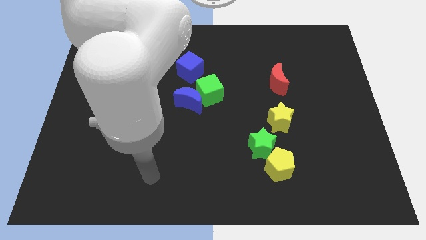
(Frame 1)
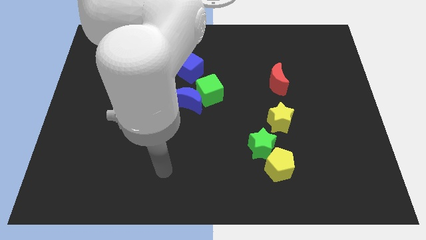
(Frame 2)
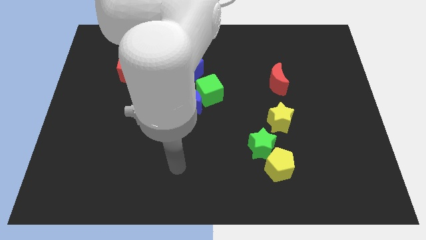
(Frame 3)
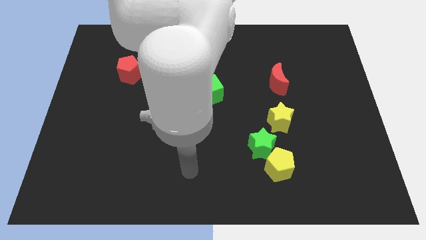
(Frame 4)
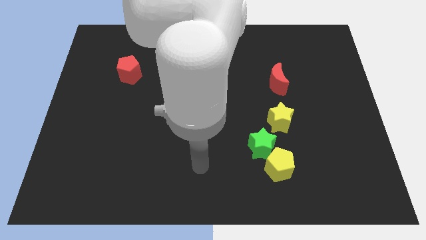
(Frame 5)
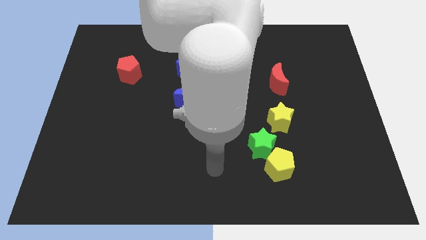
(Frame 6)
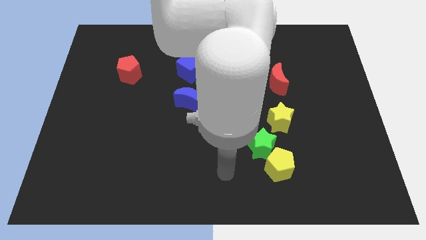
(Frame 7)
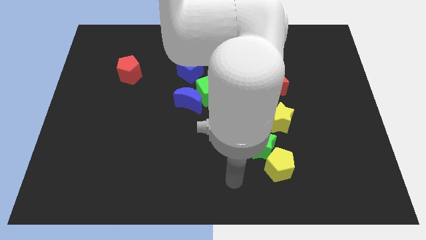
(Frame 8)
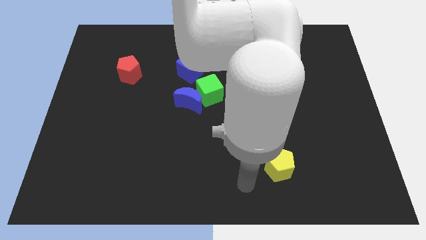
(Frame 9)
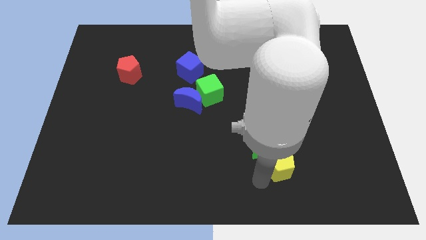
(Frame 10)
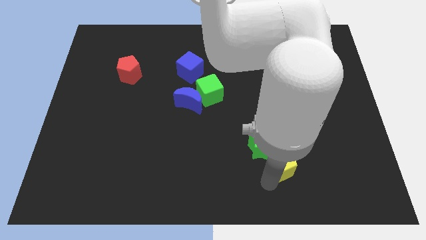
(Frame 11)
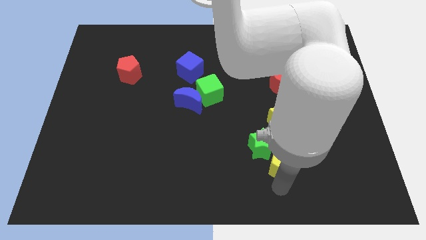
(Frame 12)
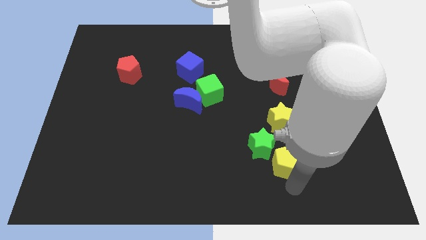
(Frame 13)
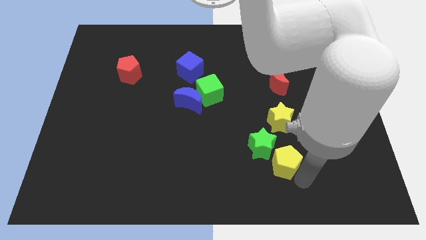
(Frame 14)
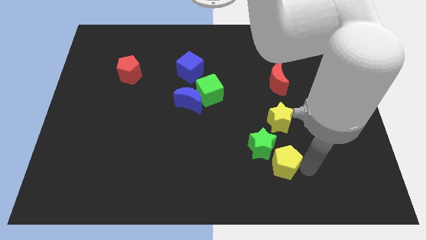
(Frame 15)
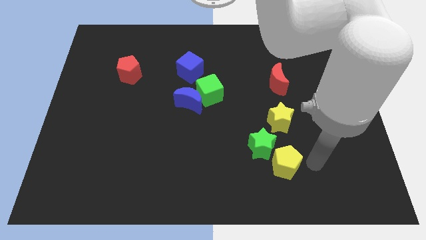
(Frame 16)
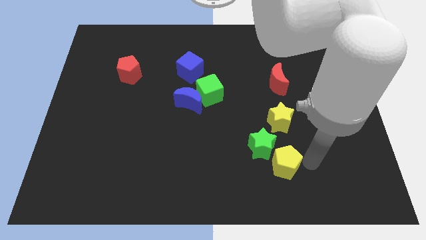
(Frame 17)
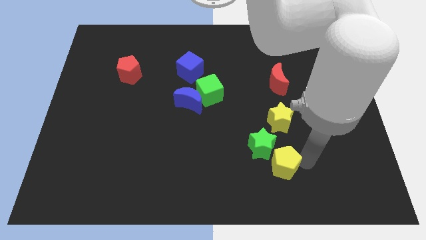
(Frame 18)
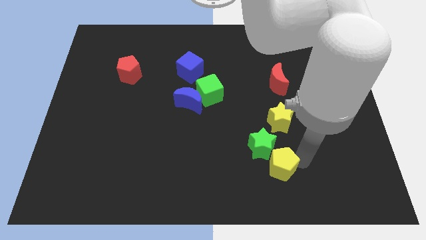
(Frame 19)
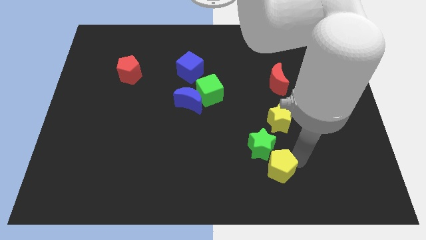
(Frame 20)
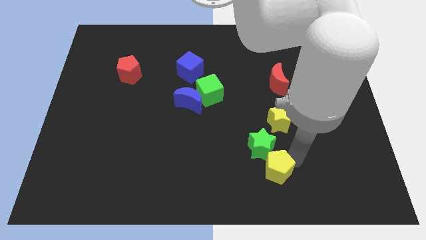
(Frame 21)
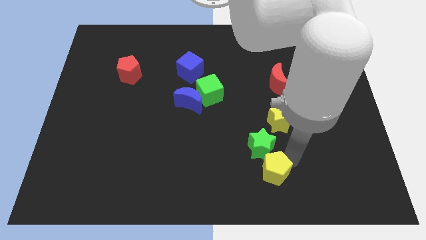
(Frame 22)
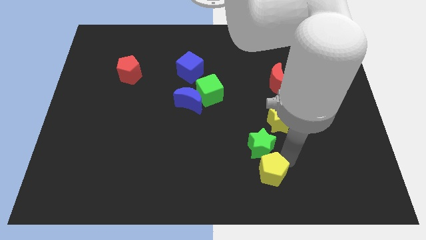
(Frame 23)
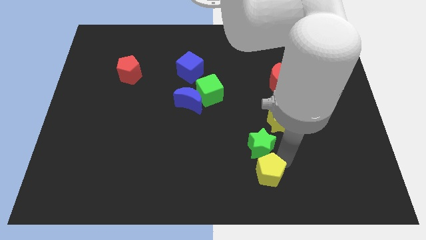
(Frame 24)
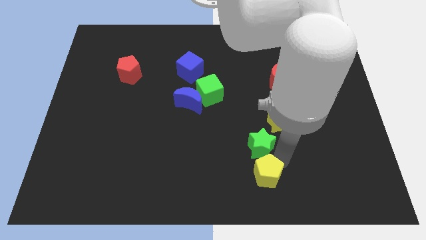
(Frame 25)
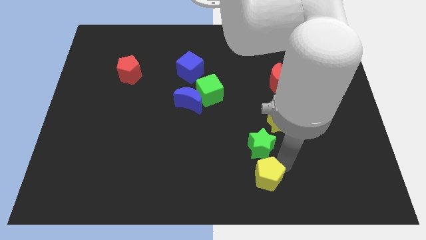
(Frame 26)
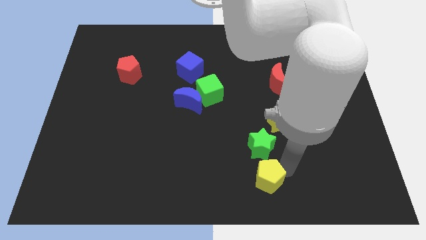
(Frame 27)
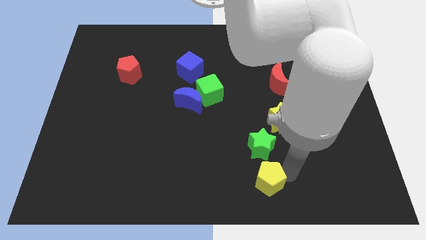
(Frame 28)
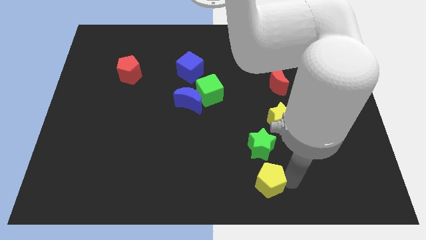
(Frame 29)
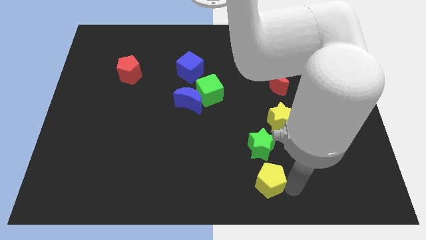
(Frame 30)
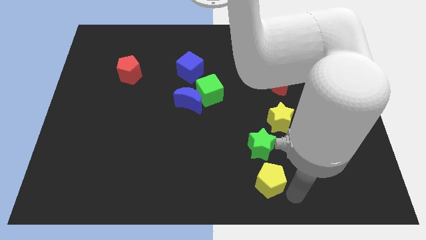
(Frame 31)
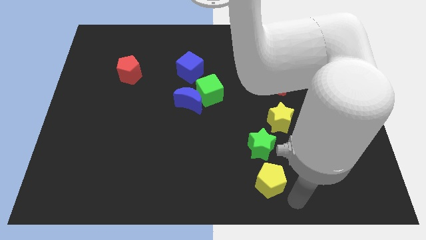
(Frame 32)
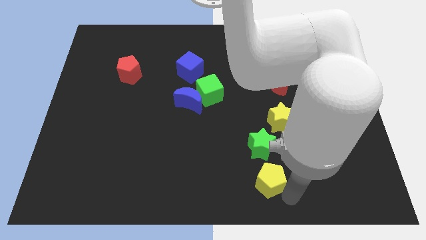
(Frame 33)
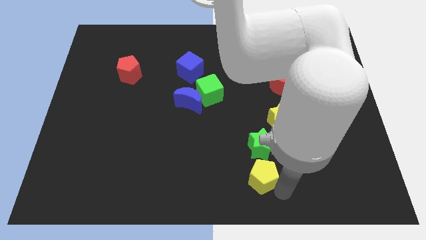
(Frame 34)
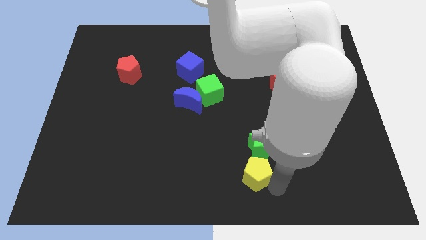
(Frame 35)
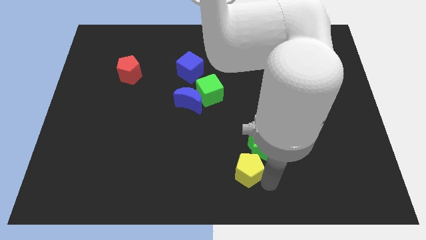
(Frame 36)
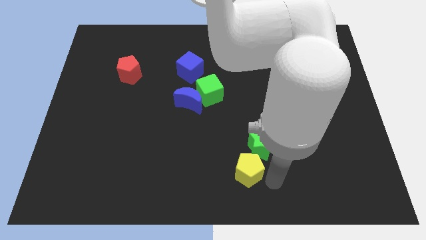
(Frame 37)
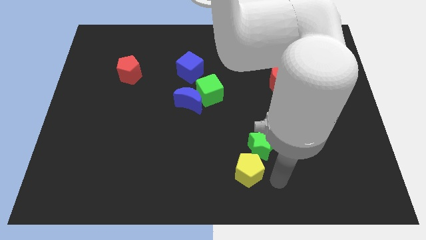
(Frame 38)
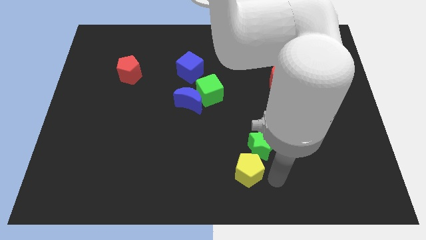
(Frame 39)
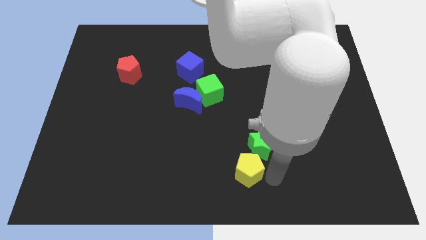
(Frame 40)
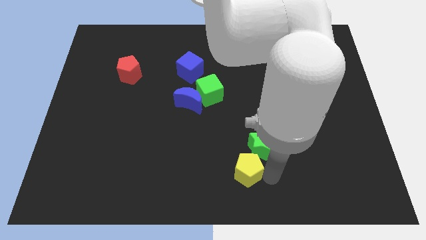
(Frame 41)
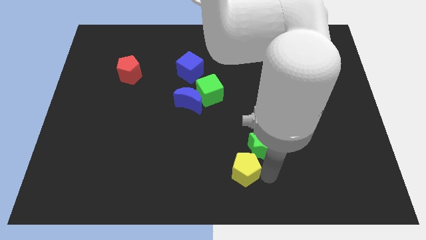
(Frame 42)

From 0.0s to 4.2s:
slightly move the yellow pentagon left

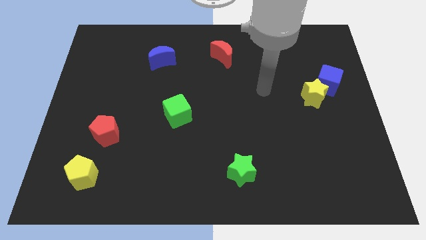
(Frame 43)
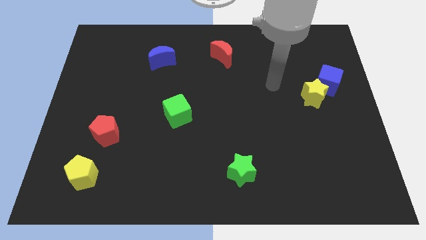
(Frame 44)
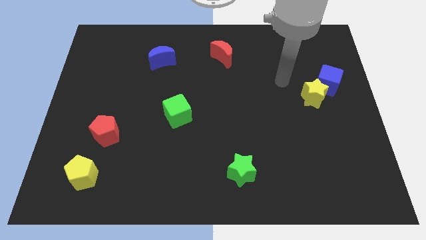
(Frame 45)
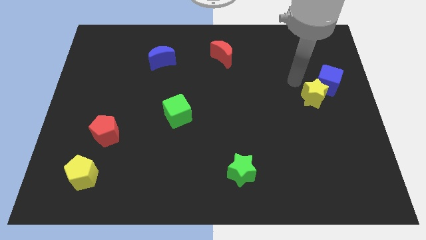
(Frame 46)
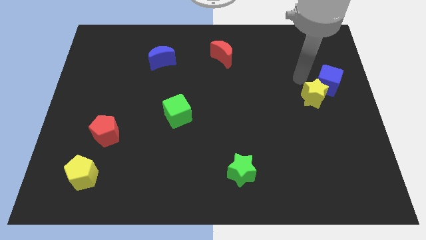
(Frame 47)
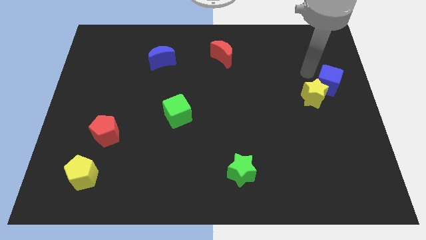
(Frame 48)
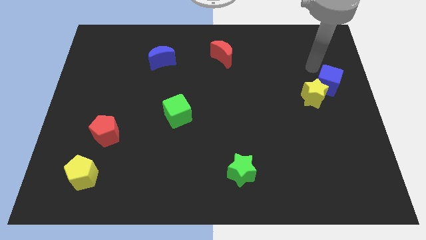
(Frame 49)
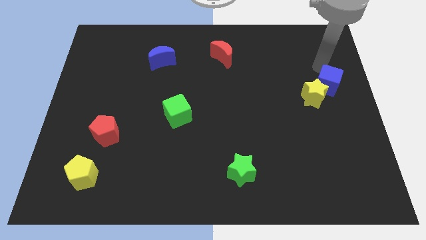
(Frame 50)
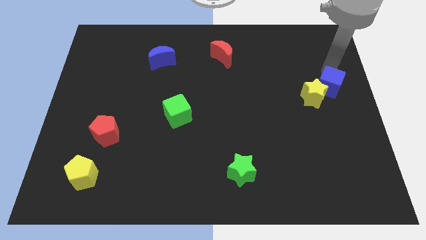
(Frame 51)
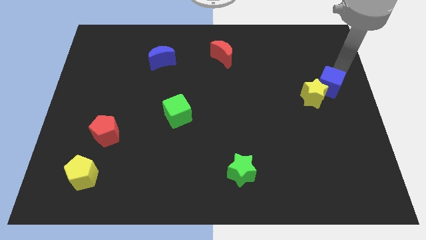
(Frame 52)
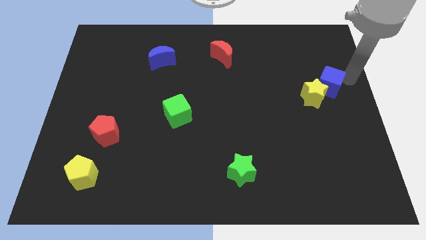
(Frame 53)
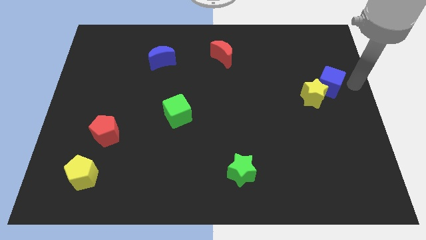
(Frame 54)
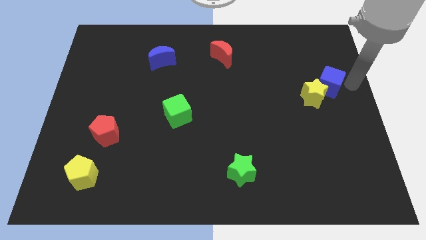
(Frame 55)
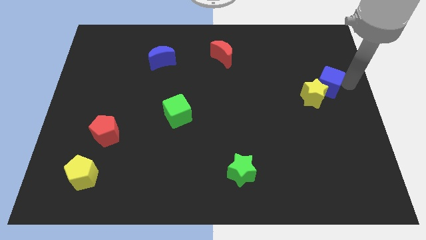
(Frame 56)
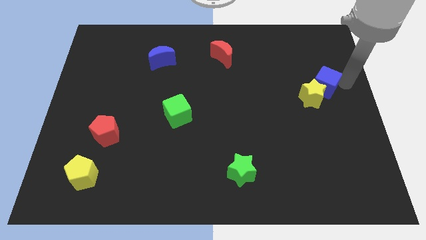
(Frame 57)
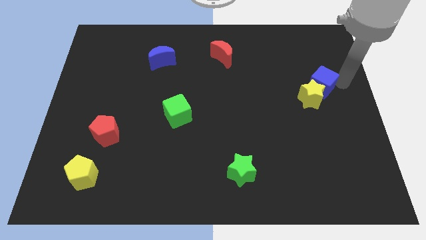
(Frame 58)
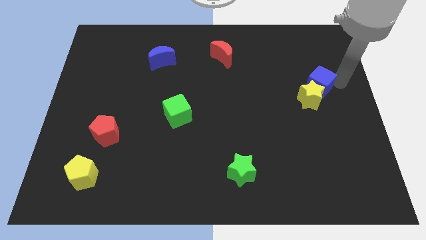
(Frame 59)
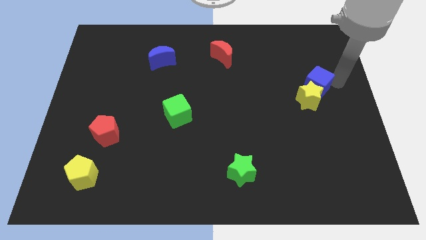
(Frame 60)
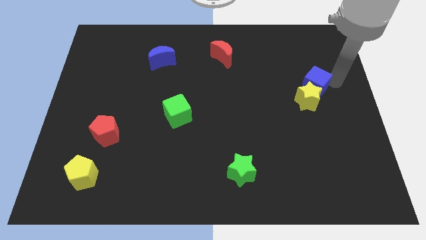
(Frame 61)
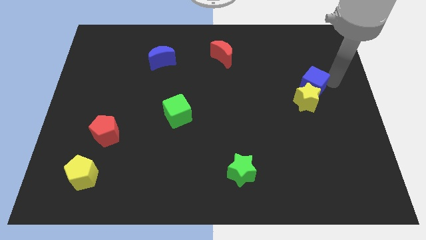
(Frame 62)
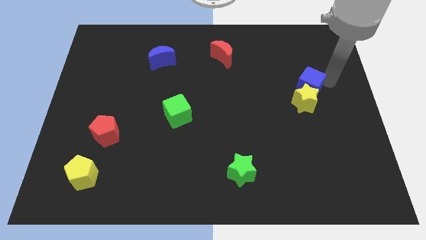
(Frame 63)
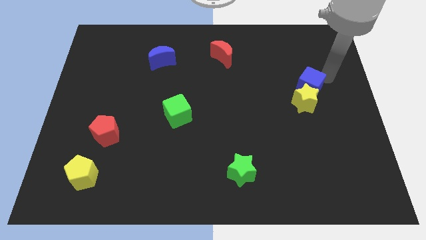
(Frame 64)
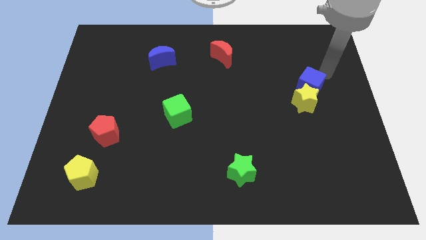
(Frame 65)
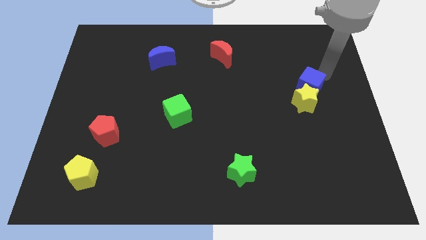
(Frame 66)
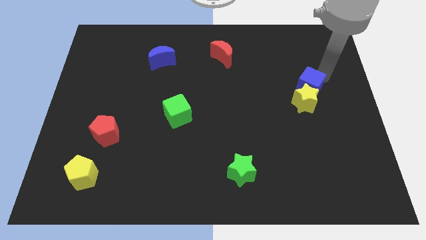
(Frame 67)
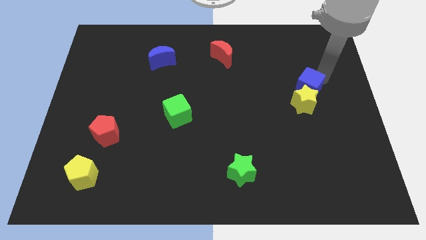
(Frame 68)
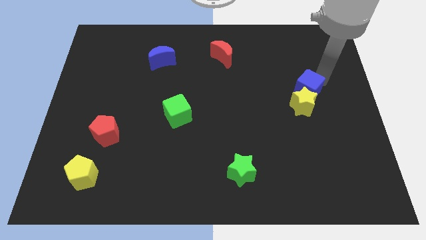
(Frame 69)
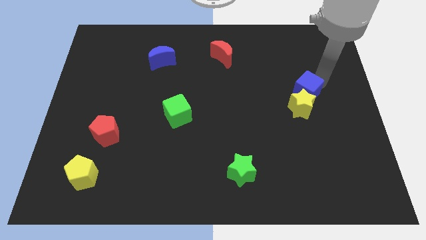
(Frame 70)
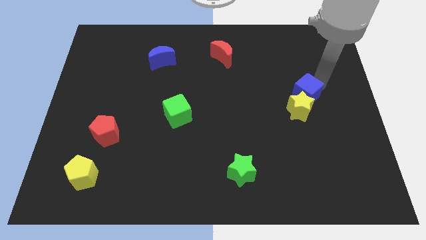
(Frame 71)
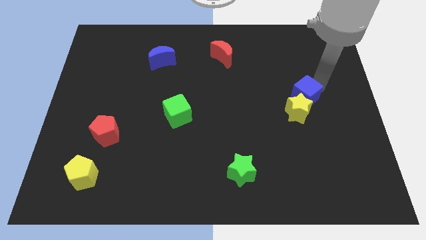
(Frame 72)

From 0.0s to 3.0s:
move the blue cube diagonally downwards and left a bit

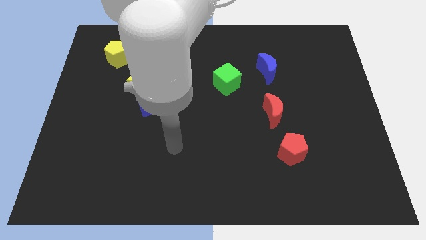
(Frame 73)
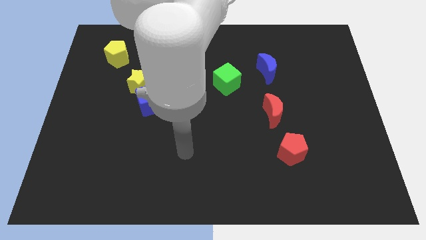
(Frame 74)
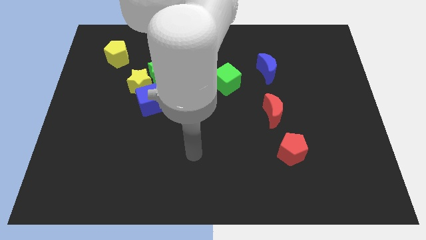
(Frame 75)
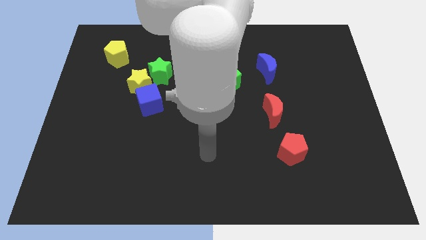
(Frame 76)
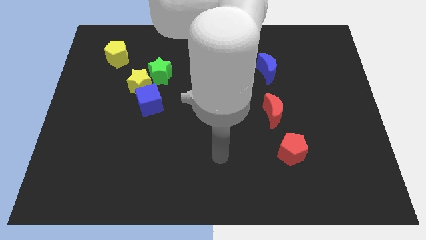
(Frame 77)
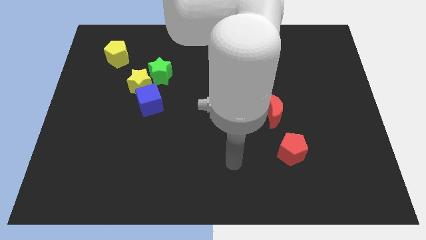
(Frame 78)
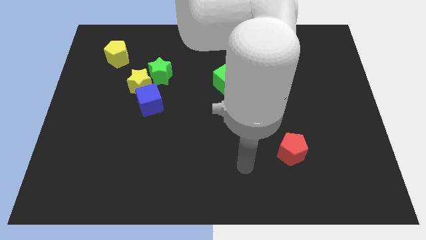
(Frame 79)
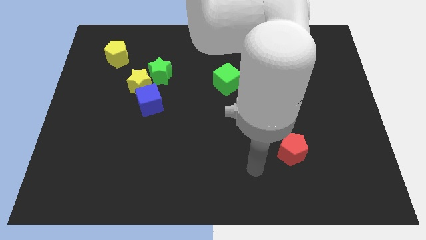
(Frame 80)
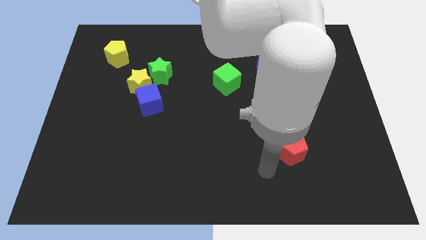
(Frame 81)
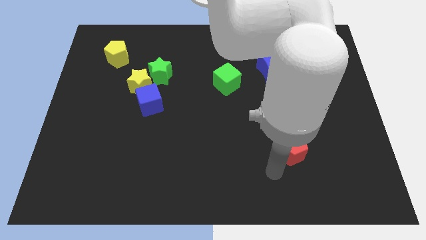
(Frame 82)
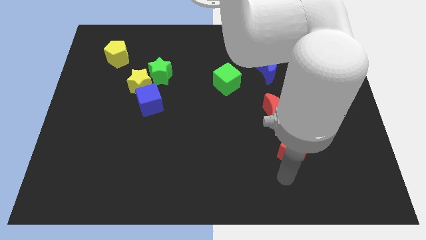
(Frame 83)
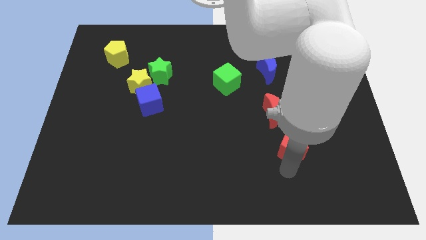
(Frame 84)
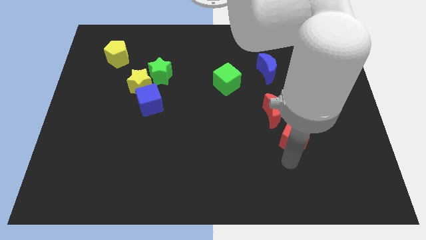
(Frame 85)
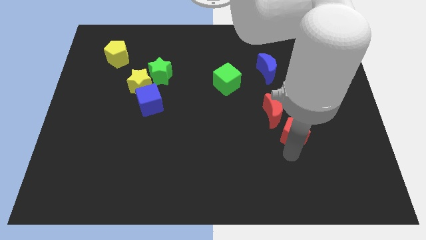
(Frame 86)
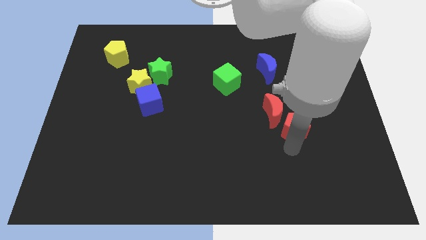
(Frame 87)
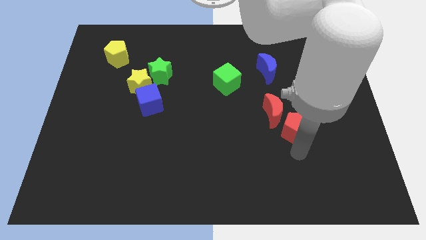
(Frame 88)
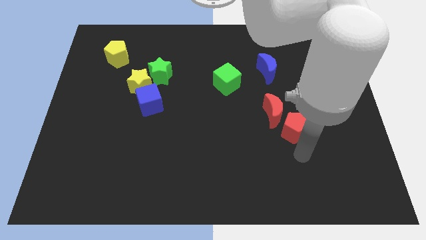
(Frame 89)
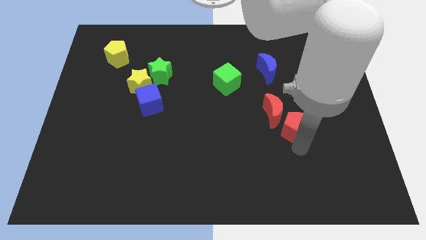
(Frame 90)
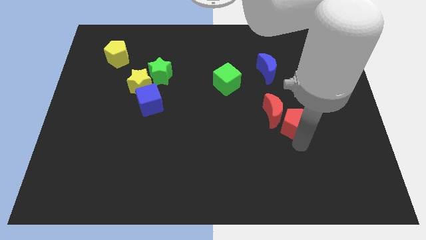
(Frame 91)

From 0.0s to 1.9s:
push the red pentagon up a bit
